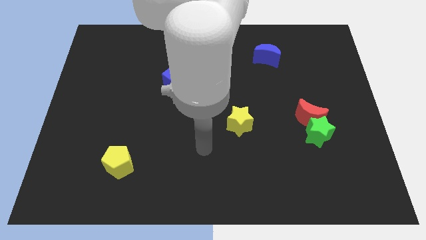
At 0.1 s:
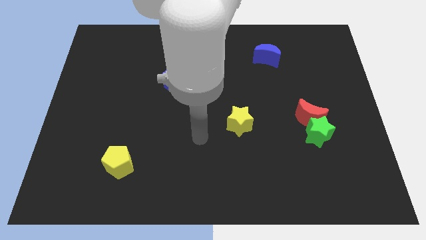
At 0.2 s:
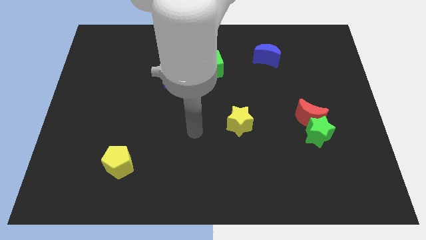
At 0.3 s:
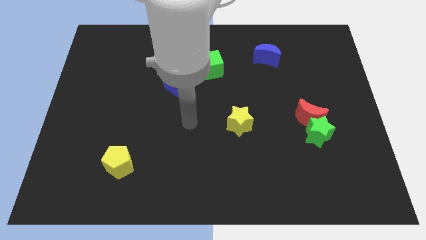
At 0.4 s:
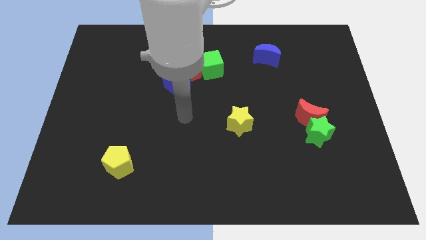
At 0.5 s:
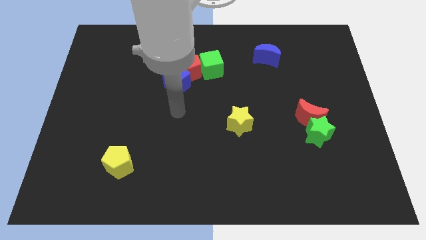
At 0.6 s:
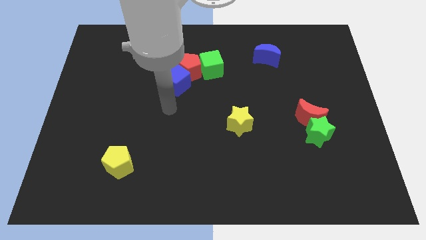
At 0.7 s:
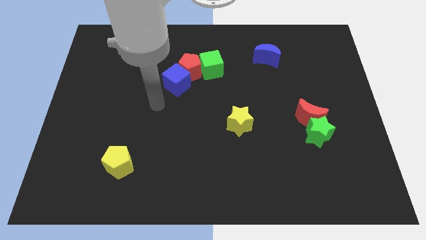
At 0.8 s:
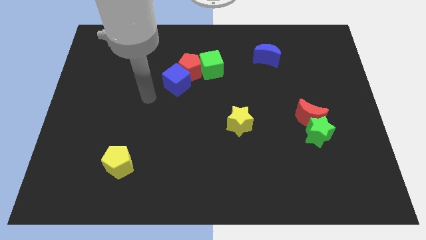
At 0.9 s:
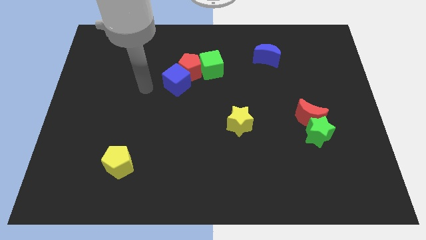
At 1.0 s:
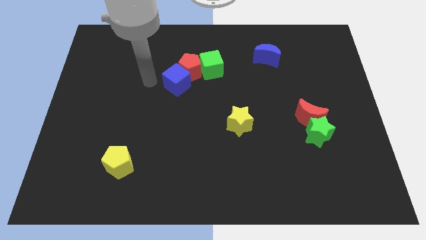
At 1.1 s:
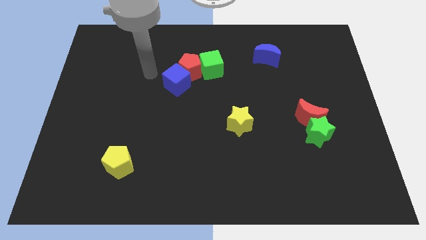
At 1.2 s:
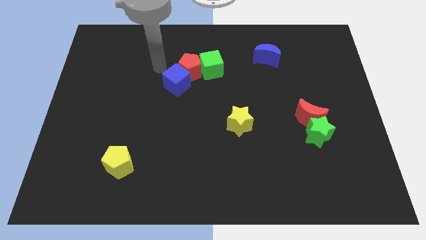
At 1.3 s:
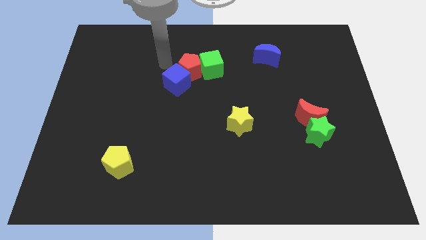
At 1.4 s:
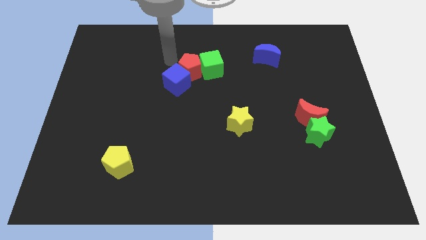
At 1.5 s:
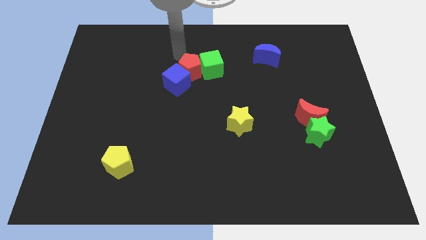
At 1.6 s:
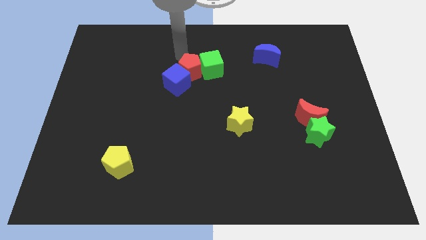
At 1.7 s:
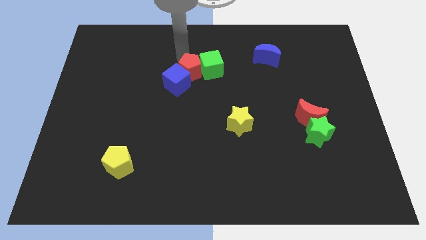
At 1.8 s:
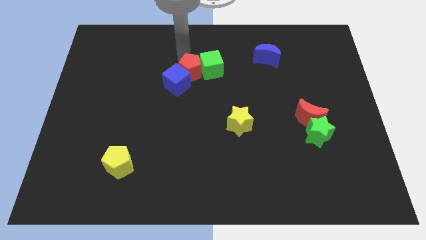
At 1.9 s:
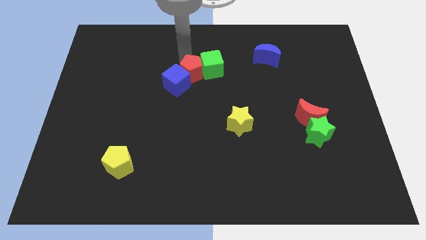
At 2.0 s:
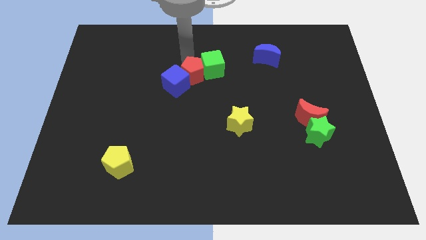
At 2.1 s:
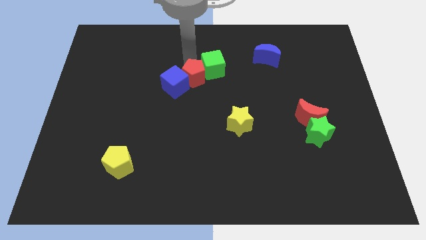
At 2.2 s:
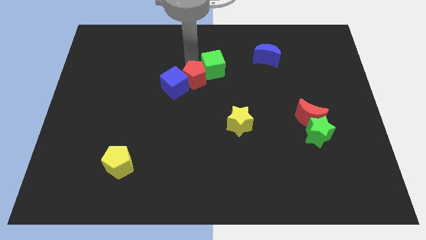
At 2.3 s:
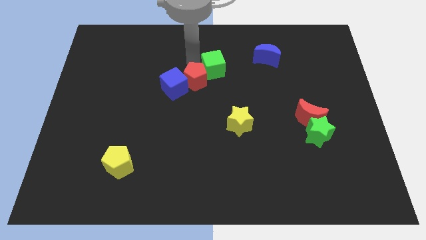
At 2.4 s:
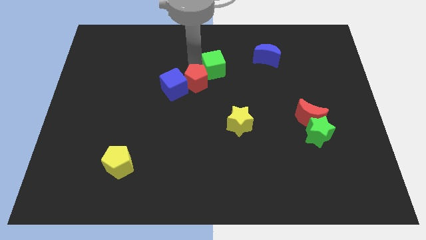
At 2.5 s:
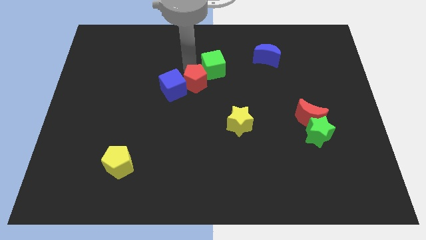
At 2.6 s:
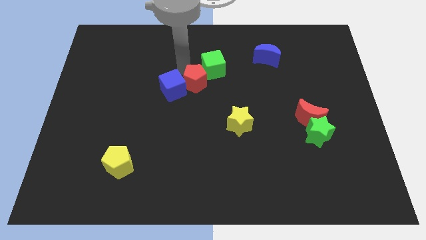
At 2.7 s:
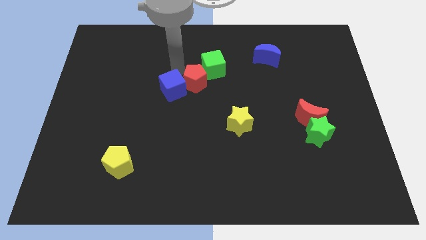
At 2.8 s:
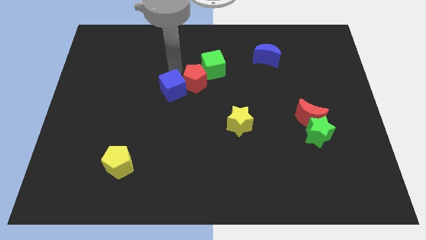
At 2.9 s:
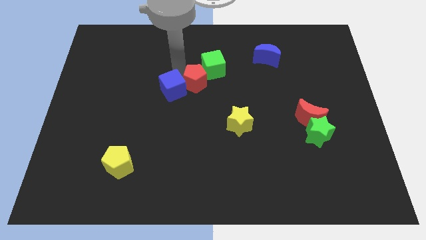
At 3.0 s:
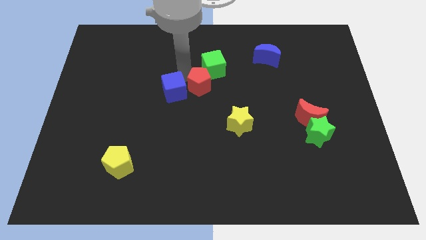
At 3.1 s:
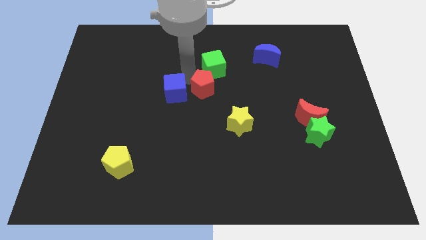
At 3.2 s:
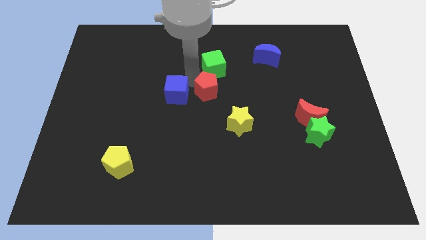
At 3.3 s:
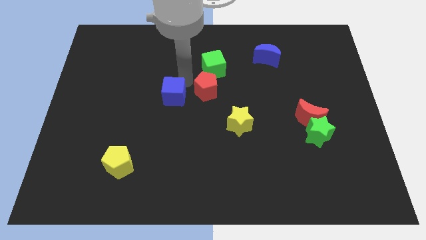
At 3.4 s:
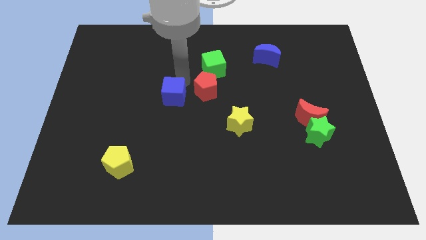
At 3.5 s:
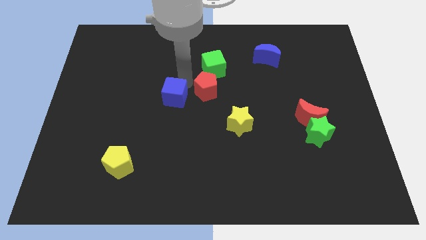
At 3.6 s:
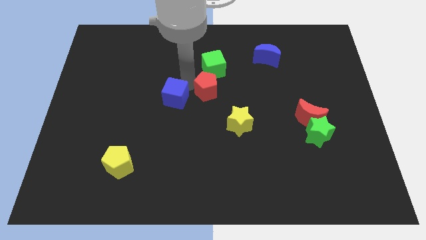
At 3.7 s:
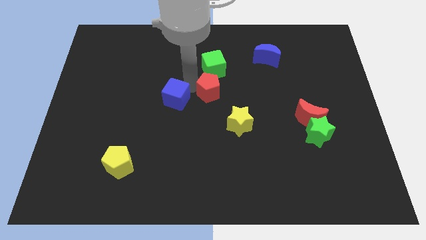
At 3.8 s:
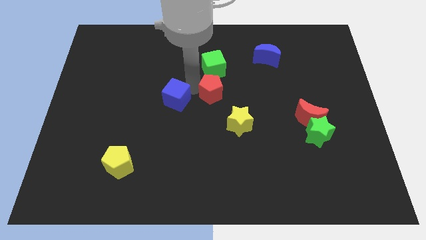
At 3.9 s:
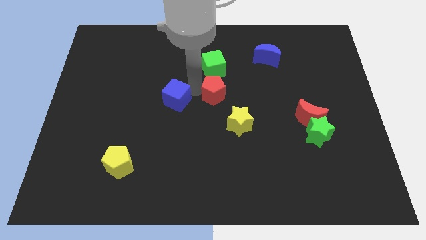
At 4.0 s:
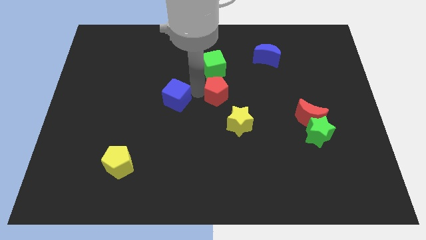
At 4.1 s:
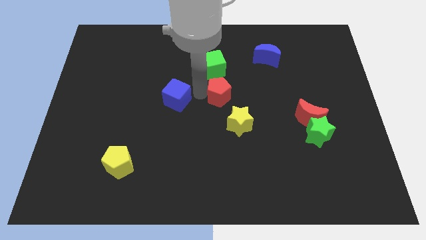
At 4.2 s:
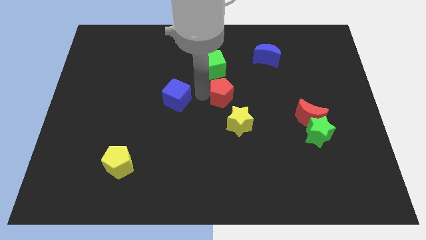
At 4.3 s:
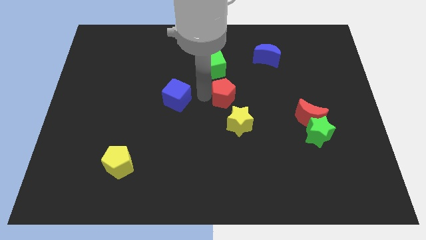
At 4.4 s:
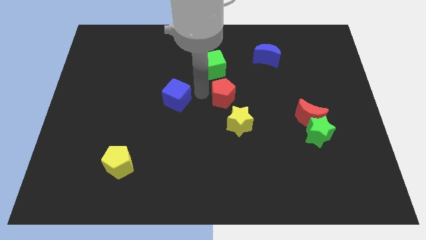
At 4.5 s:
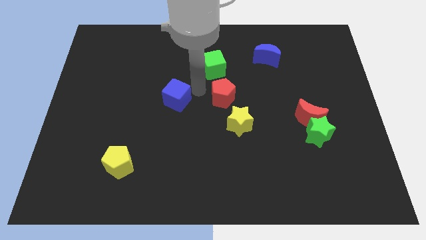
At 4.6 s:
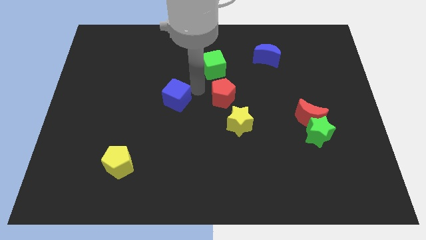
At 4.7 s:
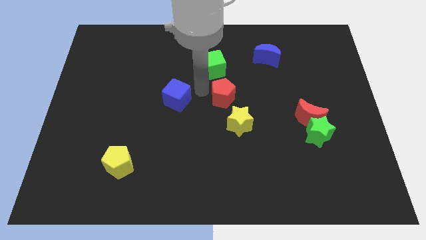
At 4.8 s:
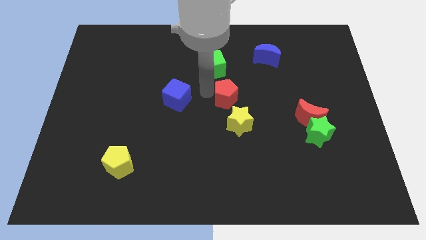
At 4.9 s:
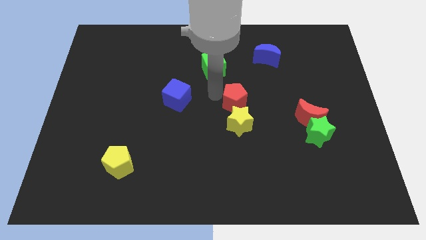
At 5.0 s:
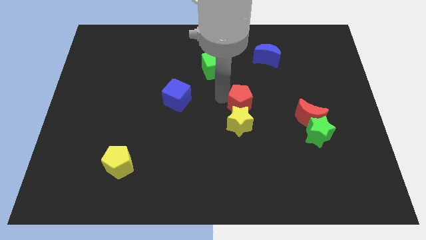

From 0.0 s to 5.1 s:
put the red pentagon to the top right side of the yellow star

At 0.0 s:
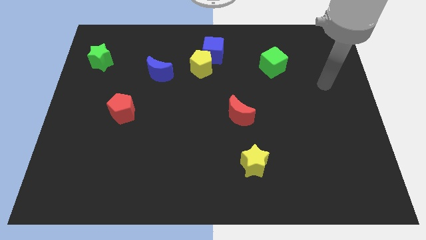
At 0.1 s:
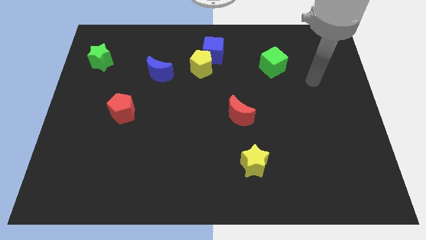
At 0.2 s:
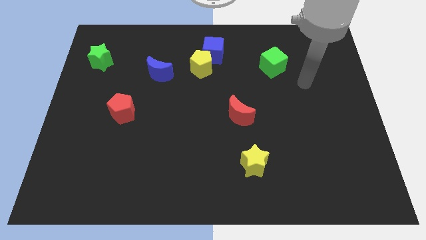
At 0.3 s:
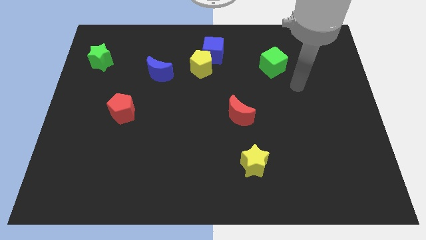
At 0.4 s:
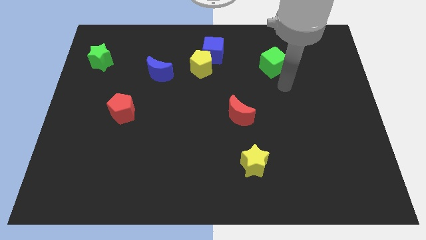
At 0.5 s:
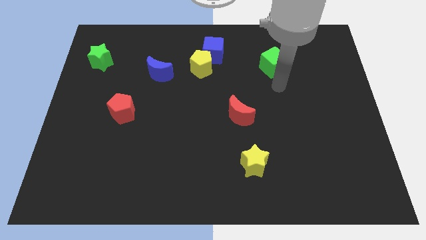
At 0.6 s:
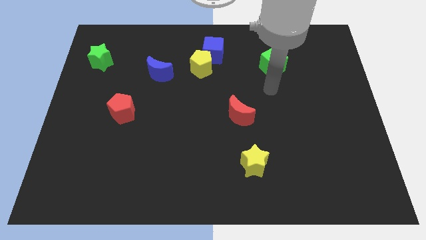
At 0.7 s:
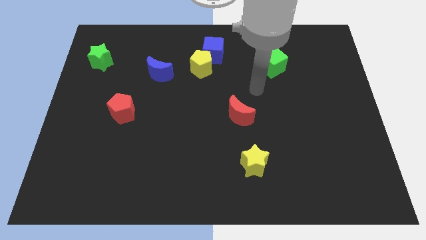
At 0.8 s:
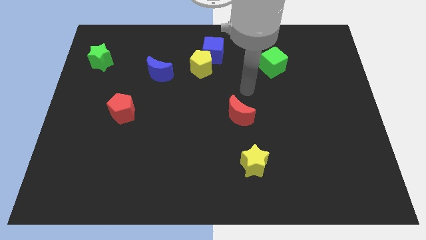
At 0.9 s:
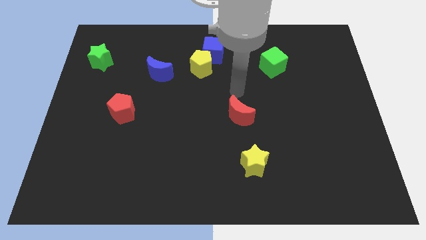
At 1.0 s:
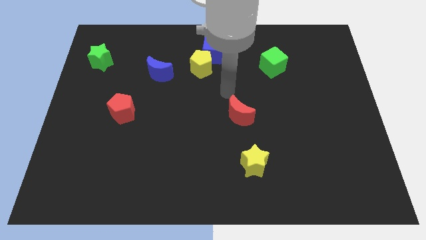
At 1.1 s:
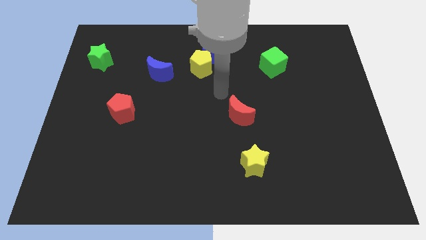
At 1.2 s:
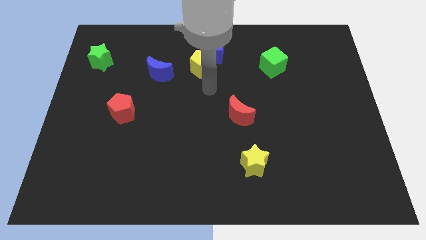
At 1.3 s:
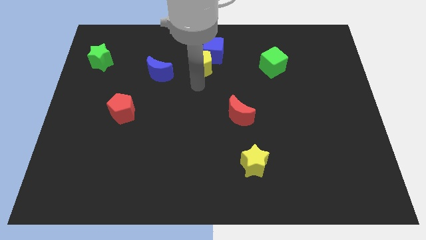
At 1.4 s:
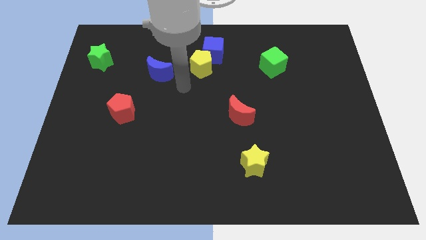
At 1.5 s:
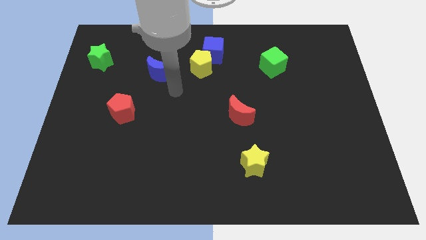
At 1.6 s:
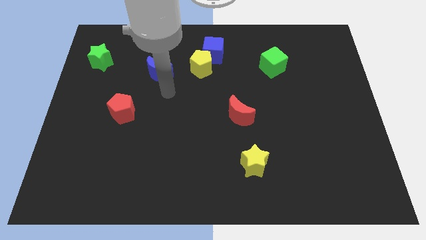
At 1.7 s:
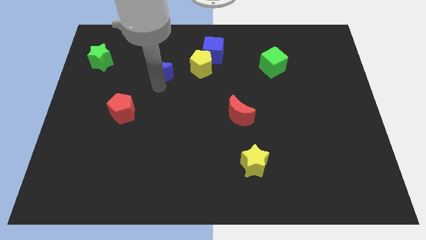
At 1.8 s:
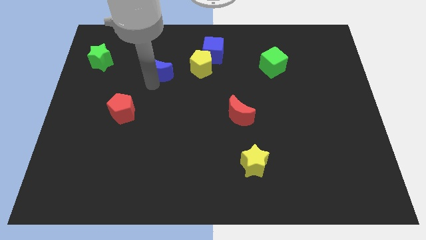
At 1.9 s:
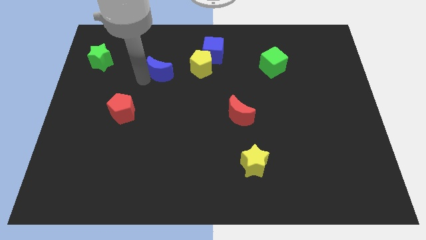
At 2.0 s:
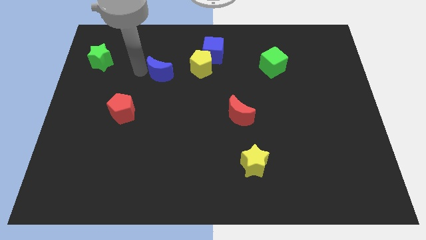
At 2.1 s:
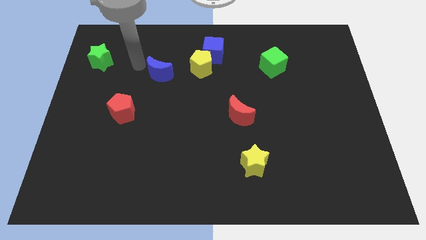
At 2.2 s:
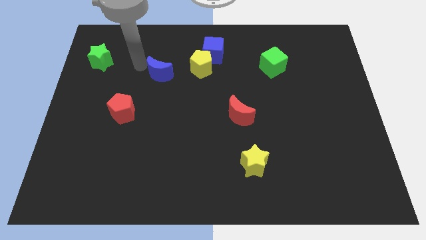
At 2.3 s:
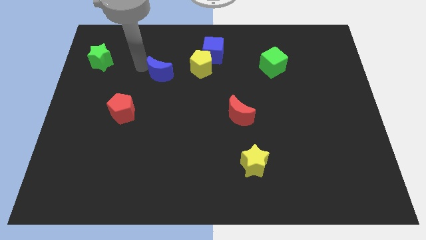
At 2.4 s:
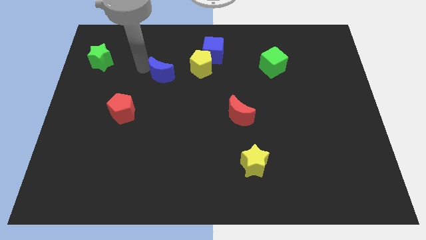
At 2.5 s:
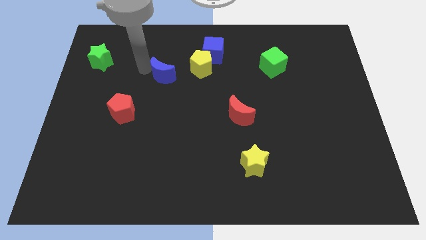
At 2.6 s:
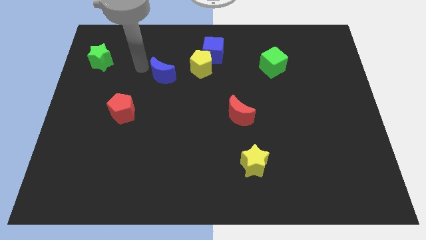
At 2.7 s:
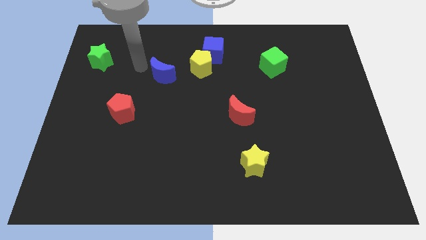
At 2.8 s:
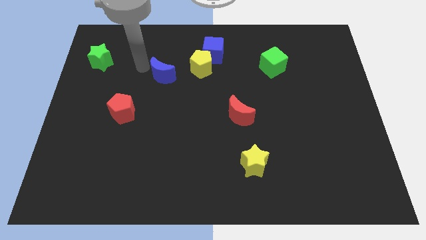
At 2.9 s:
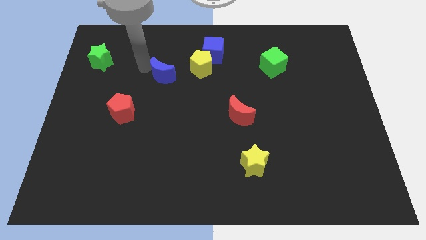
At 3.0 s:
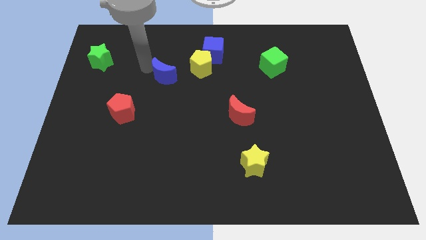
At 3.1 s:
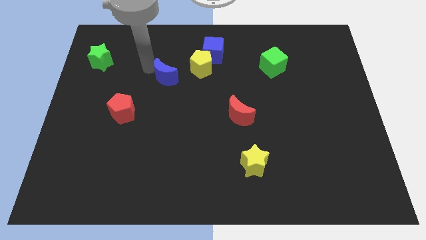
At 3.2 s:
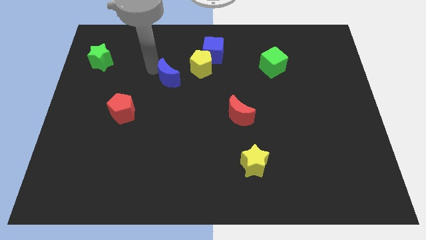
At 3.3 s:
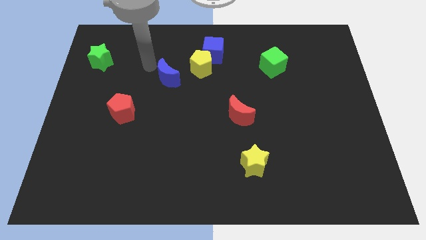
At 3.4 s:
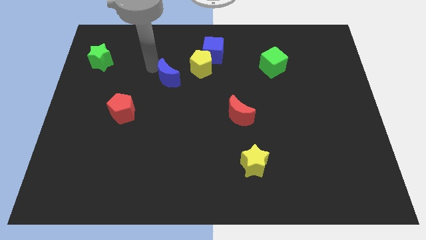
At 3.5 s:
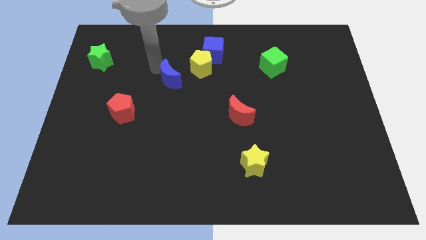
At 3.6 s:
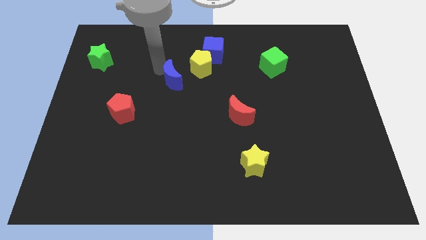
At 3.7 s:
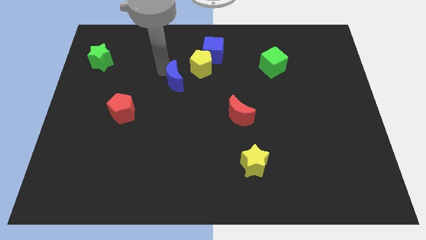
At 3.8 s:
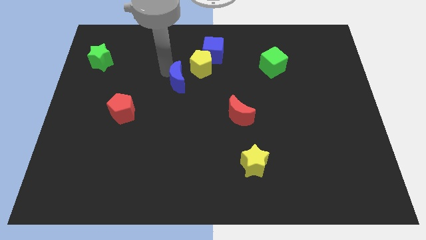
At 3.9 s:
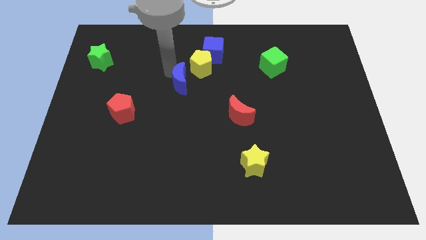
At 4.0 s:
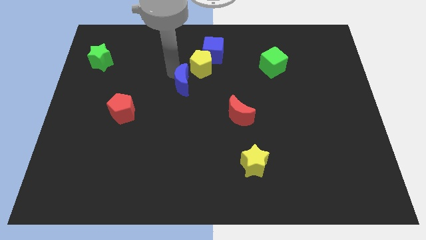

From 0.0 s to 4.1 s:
push the blue moon below the yellow pentagon
